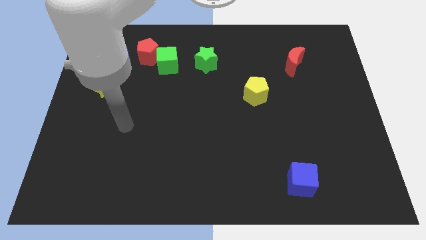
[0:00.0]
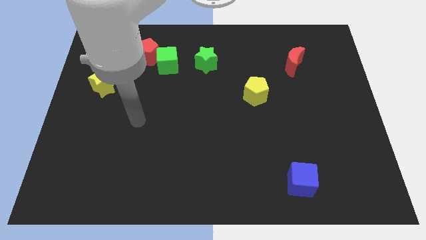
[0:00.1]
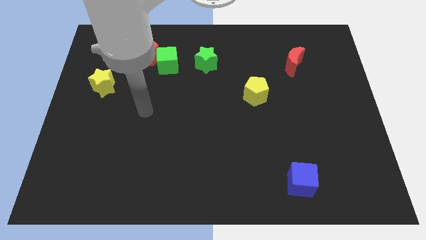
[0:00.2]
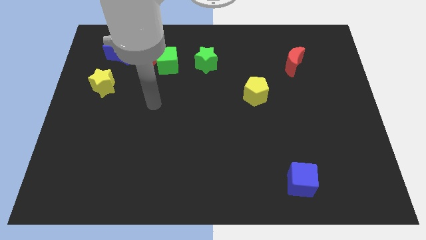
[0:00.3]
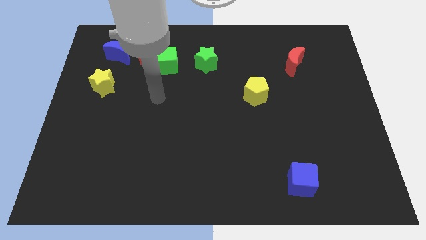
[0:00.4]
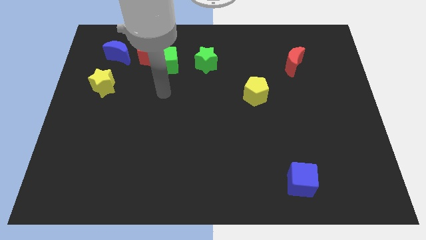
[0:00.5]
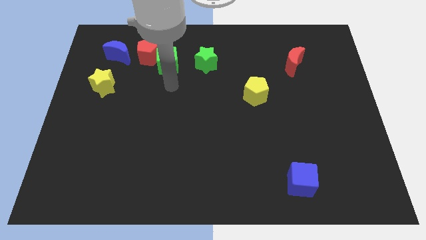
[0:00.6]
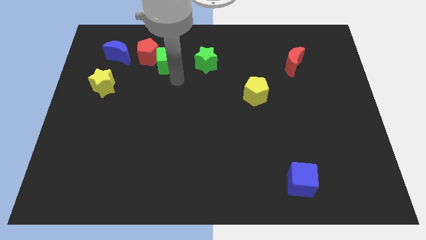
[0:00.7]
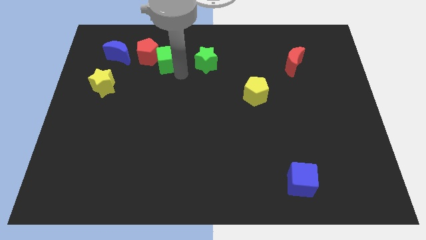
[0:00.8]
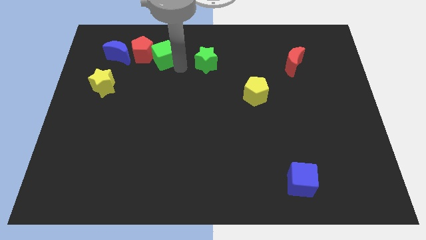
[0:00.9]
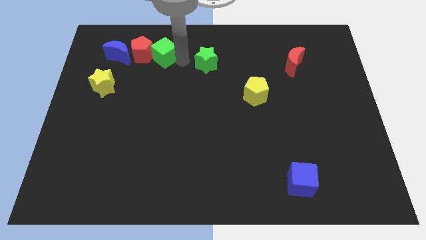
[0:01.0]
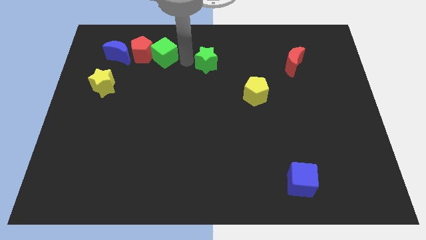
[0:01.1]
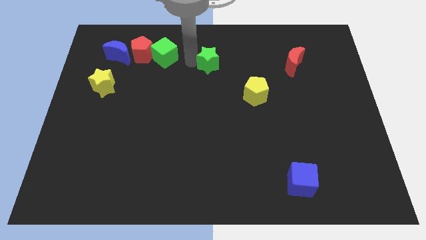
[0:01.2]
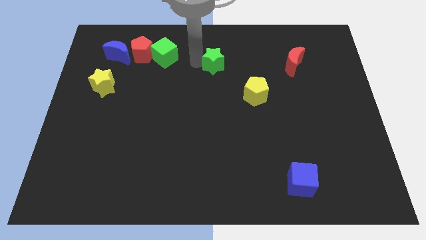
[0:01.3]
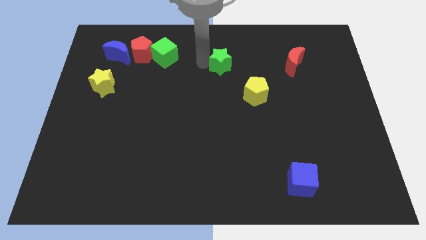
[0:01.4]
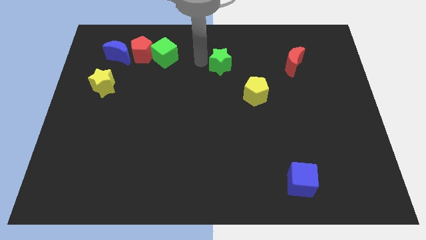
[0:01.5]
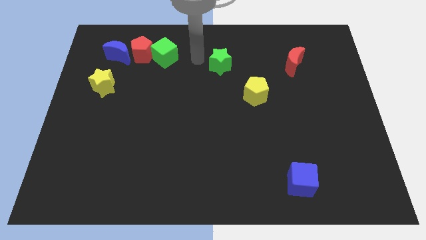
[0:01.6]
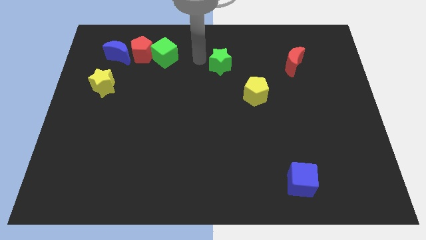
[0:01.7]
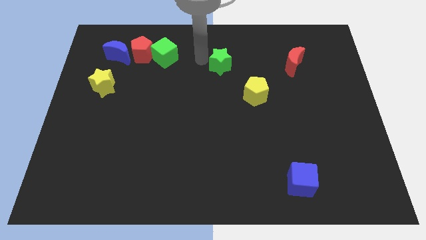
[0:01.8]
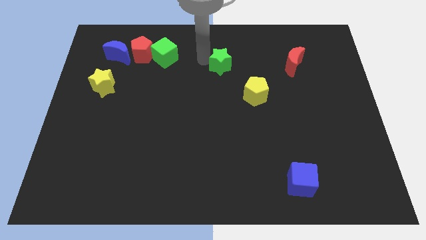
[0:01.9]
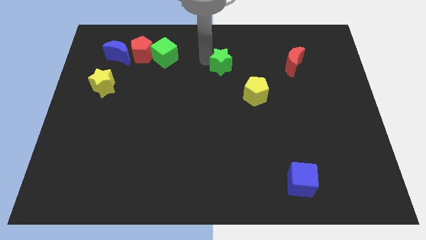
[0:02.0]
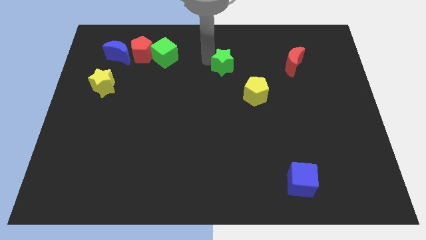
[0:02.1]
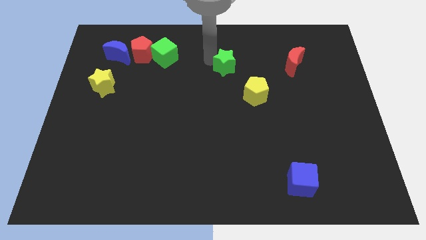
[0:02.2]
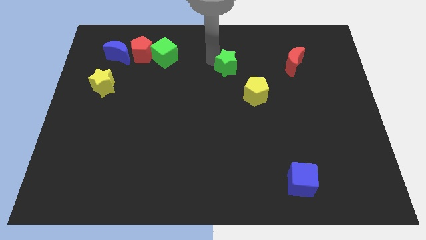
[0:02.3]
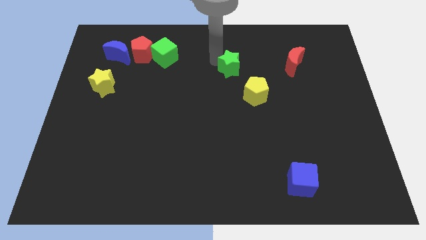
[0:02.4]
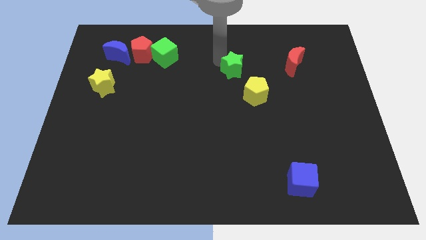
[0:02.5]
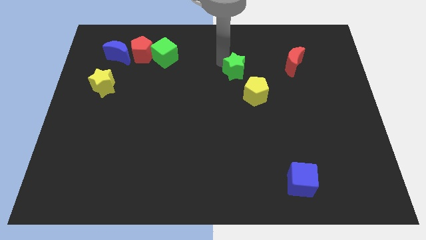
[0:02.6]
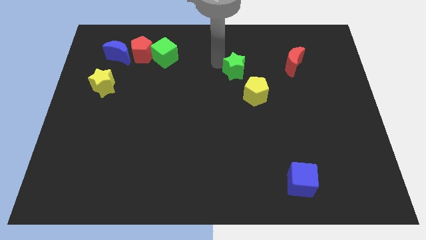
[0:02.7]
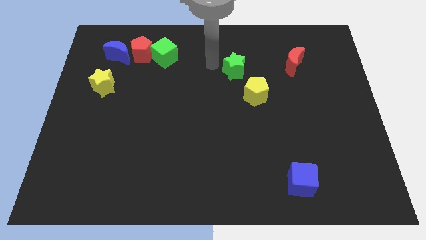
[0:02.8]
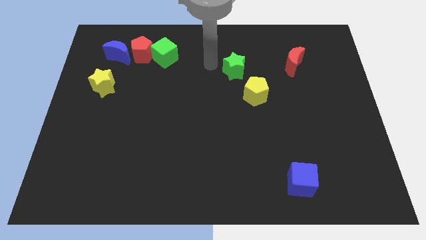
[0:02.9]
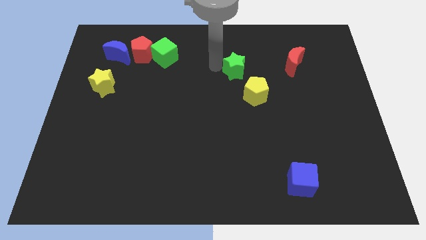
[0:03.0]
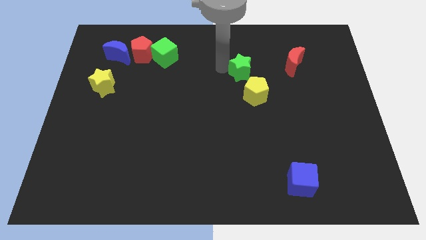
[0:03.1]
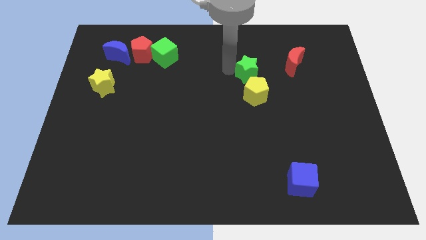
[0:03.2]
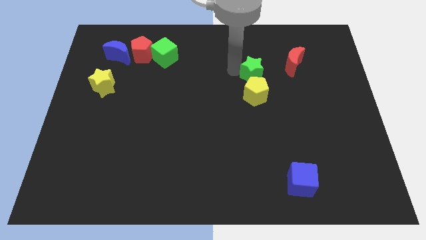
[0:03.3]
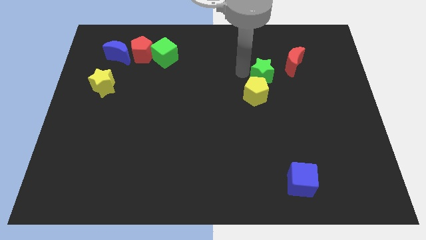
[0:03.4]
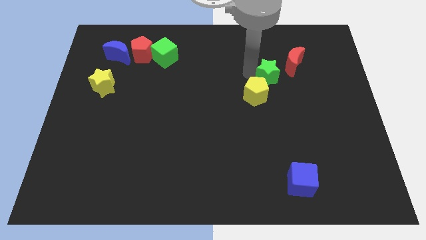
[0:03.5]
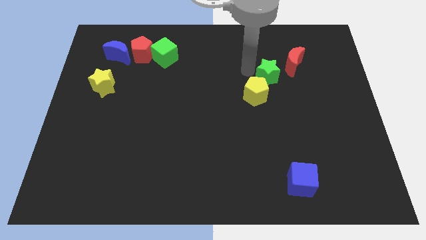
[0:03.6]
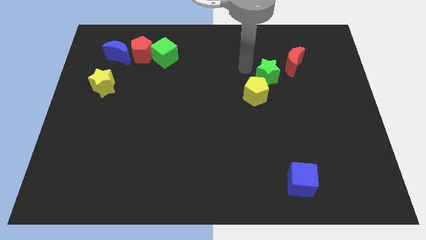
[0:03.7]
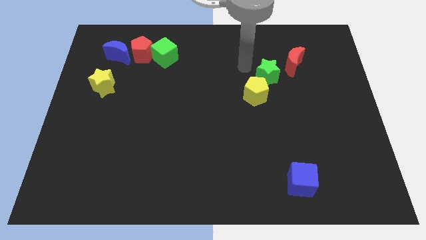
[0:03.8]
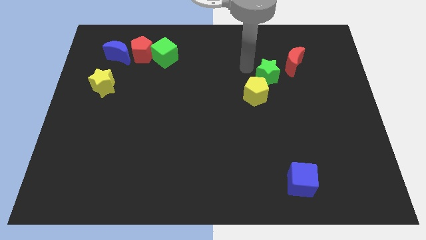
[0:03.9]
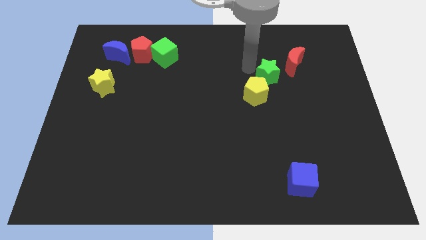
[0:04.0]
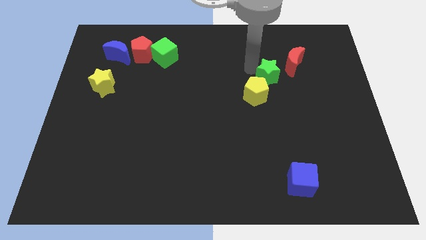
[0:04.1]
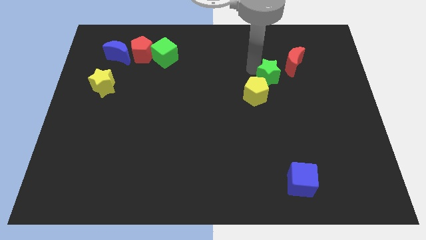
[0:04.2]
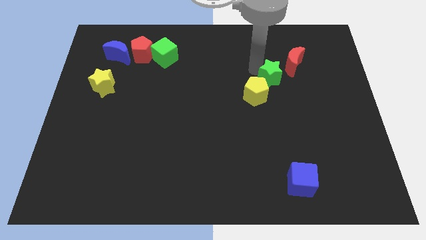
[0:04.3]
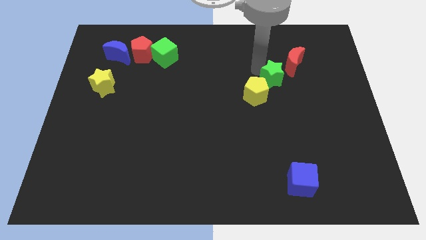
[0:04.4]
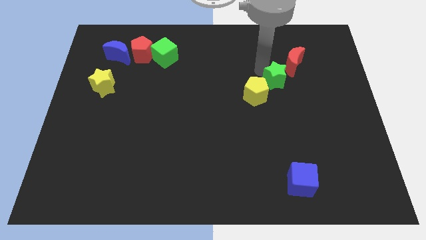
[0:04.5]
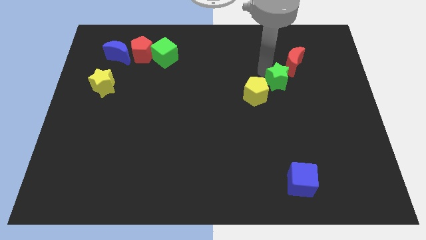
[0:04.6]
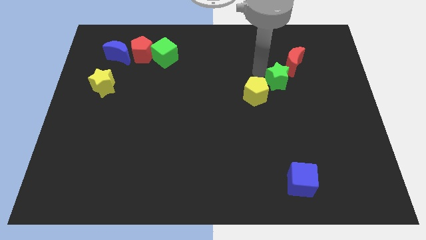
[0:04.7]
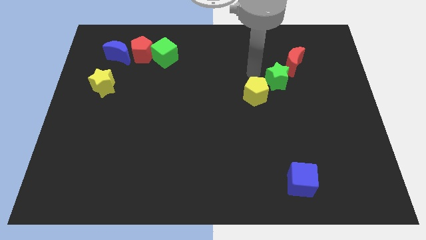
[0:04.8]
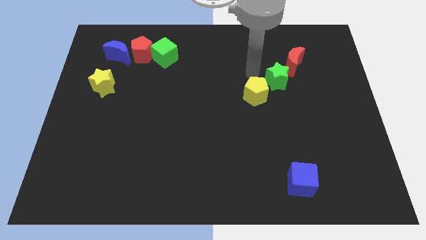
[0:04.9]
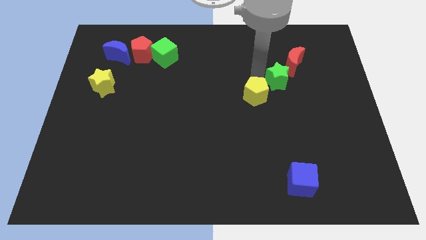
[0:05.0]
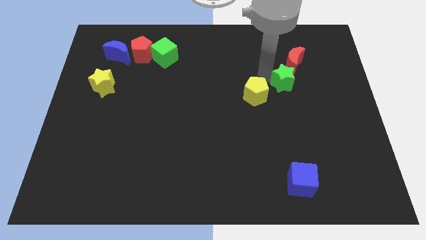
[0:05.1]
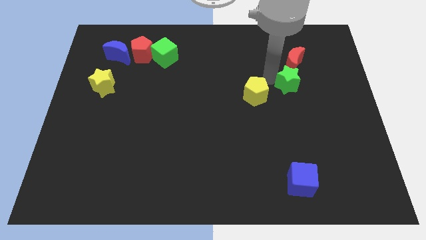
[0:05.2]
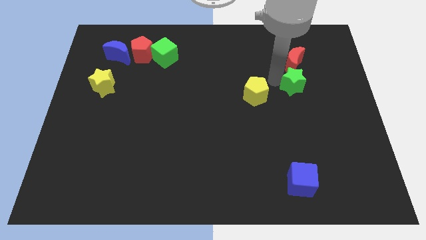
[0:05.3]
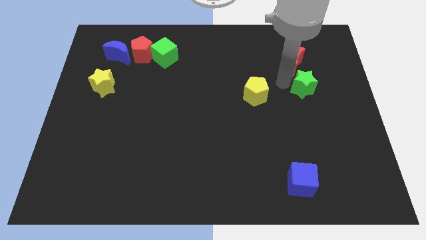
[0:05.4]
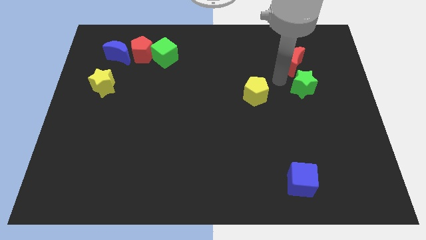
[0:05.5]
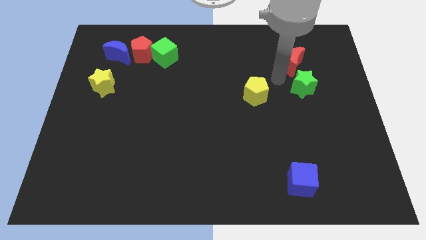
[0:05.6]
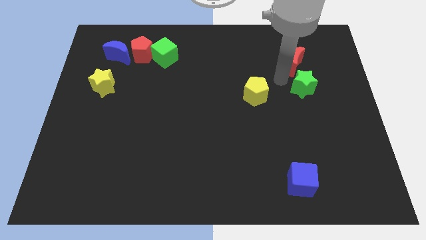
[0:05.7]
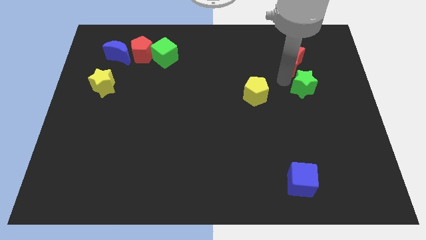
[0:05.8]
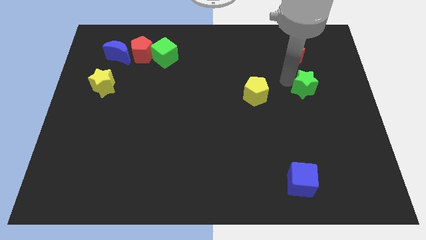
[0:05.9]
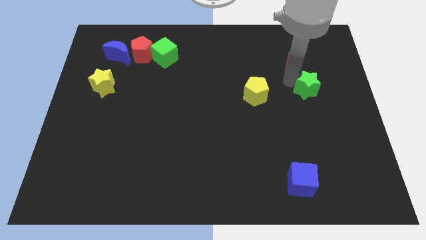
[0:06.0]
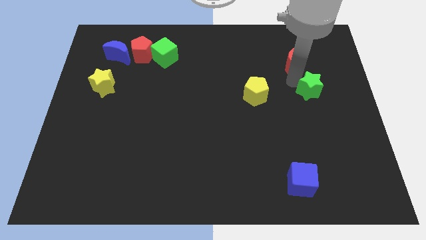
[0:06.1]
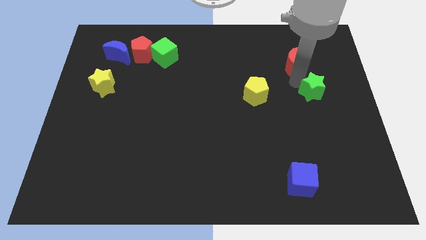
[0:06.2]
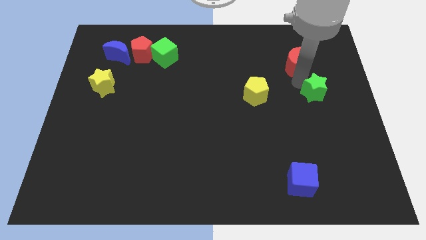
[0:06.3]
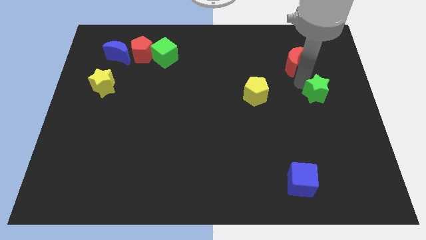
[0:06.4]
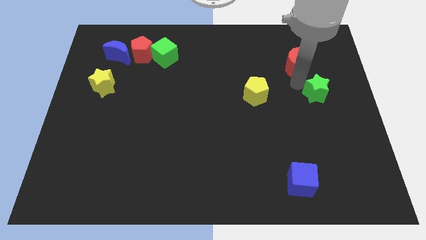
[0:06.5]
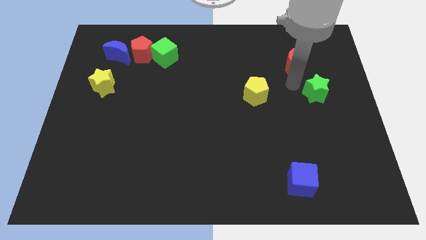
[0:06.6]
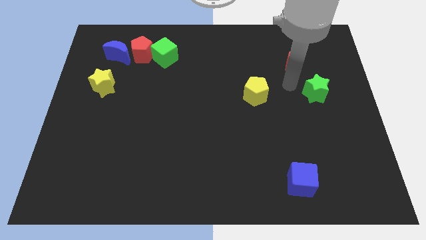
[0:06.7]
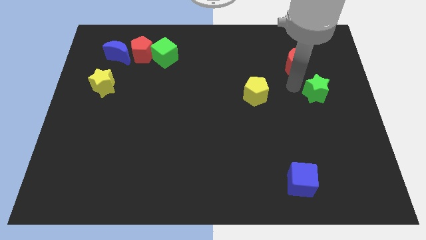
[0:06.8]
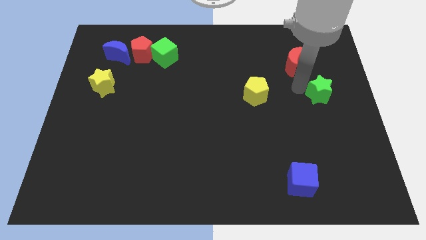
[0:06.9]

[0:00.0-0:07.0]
push the green star to the right side of the board
